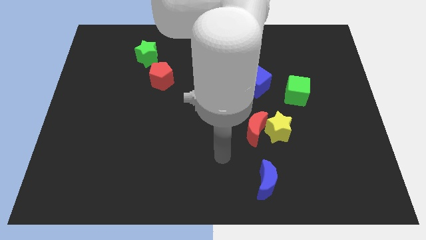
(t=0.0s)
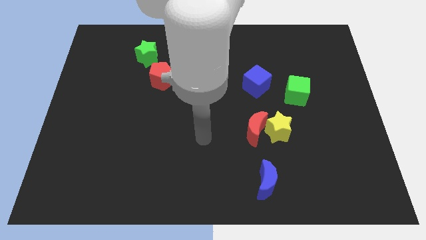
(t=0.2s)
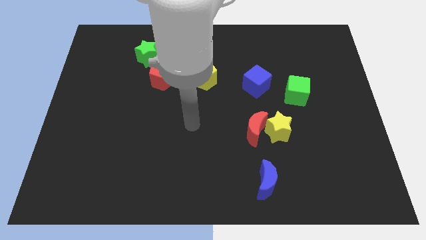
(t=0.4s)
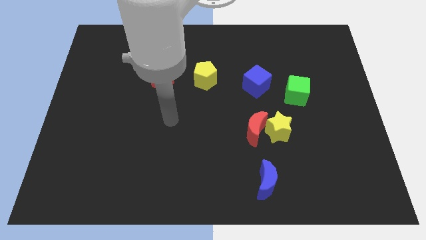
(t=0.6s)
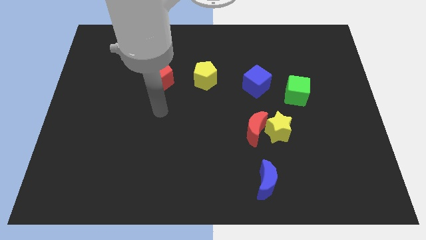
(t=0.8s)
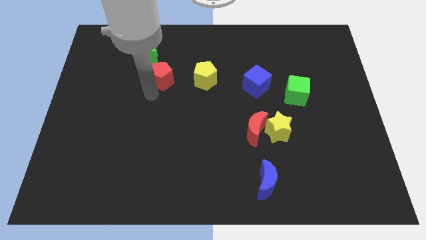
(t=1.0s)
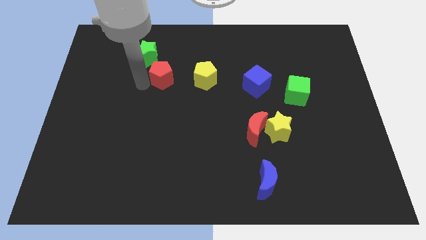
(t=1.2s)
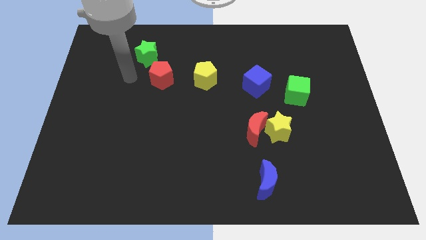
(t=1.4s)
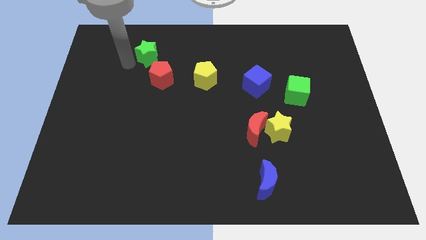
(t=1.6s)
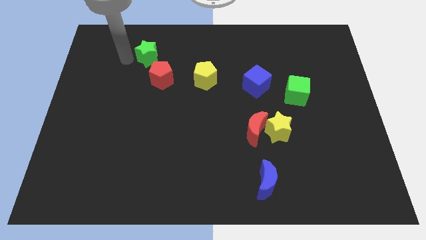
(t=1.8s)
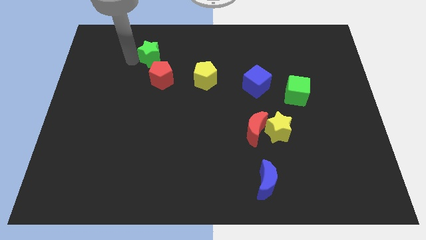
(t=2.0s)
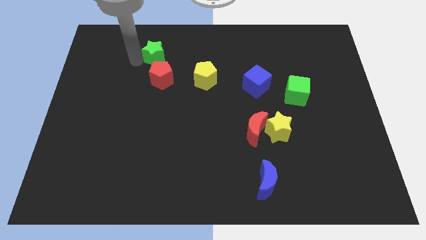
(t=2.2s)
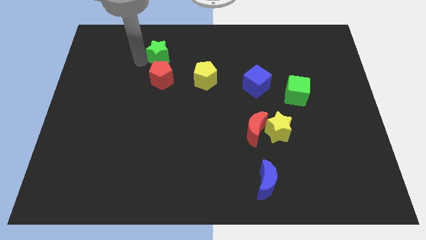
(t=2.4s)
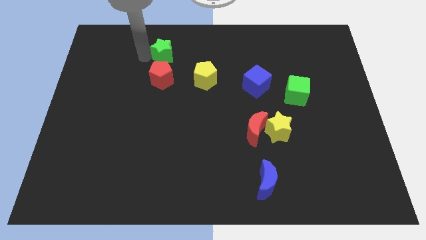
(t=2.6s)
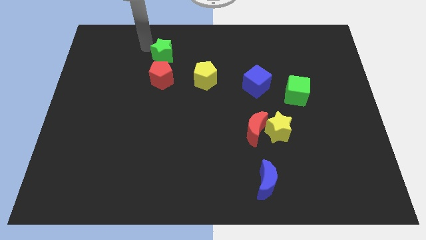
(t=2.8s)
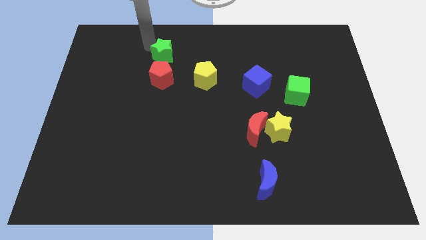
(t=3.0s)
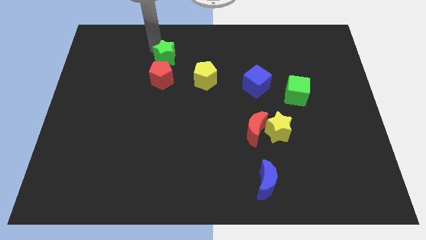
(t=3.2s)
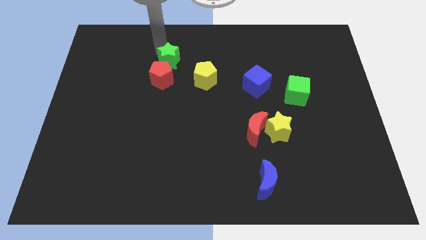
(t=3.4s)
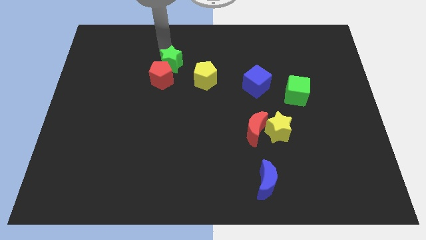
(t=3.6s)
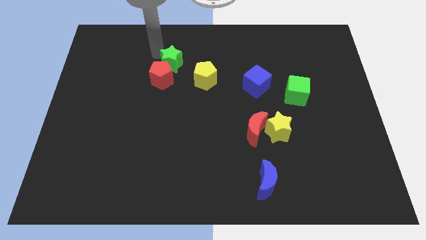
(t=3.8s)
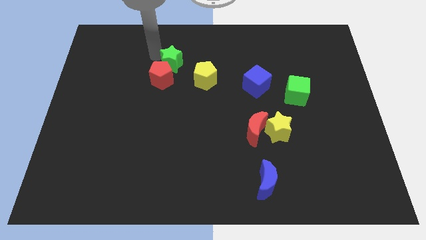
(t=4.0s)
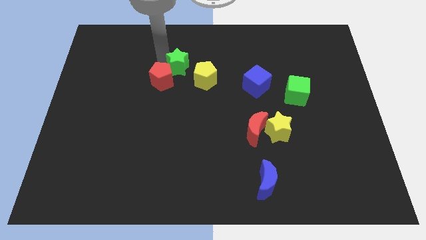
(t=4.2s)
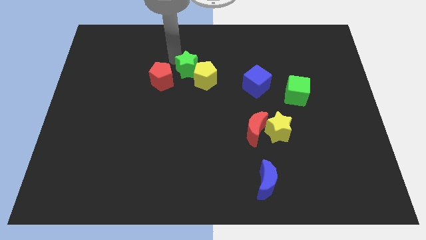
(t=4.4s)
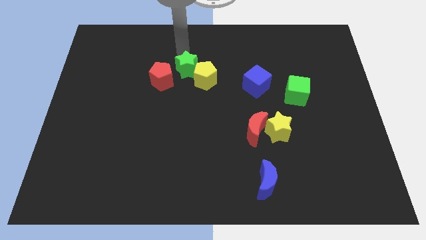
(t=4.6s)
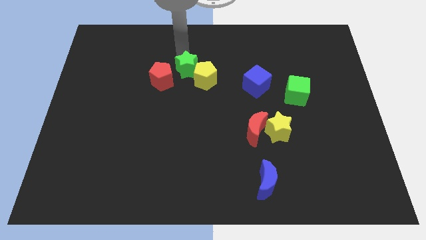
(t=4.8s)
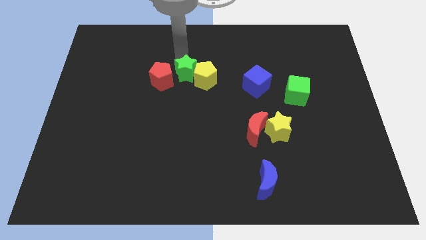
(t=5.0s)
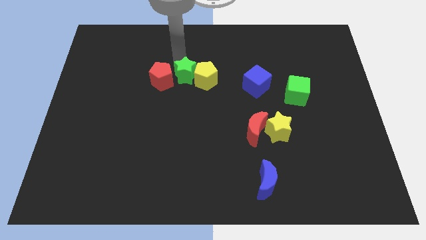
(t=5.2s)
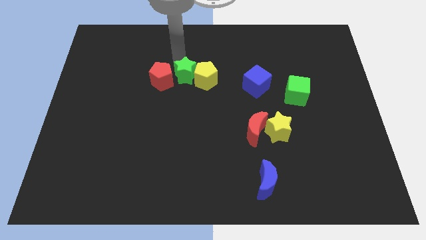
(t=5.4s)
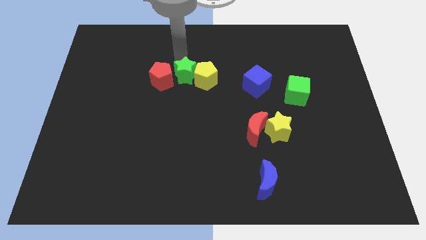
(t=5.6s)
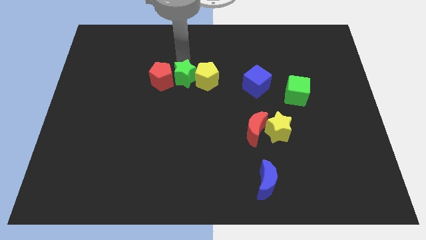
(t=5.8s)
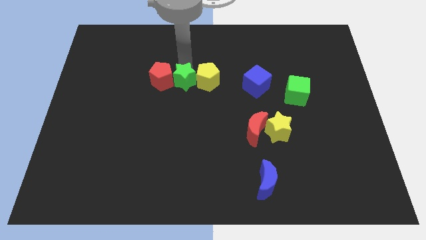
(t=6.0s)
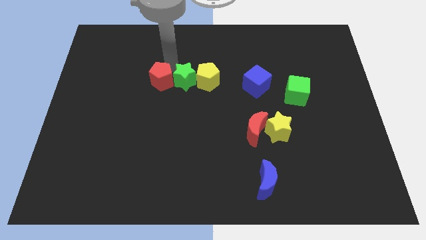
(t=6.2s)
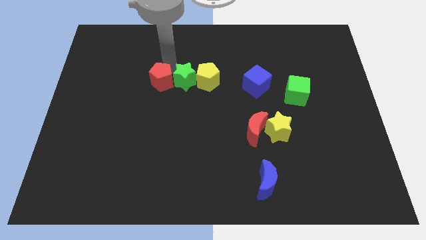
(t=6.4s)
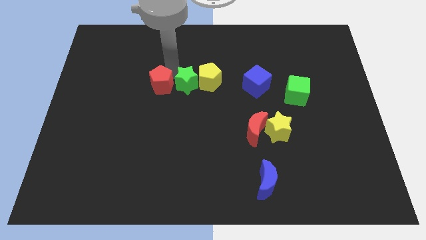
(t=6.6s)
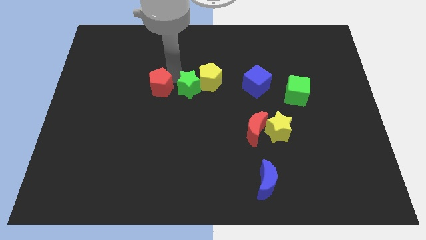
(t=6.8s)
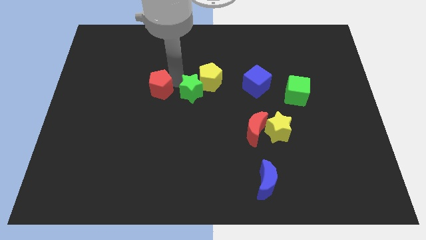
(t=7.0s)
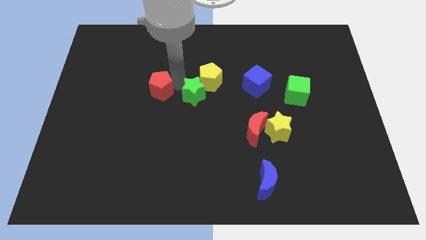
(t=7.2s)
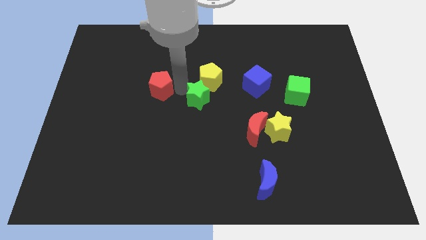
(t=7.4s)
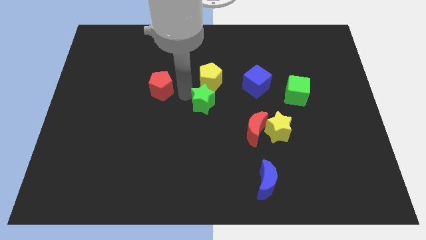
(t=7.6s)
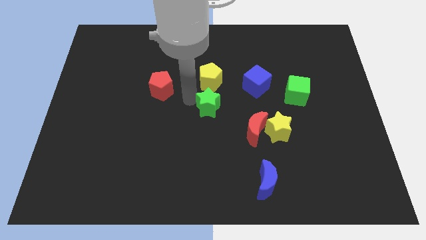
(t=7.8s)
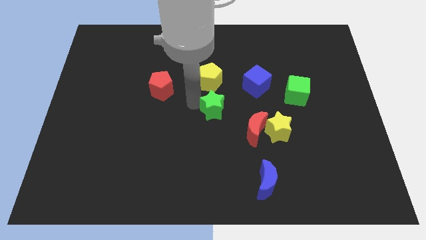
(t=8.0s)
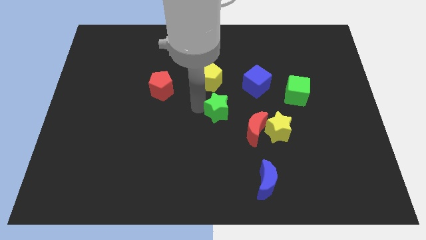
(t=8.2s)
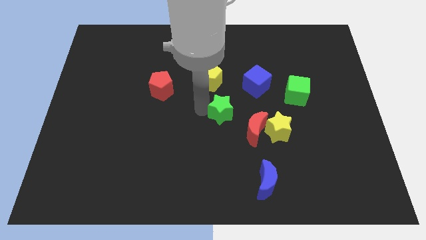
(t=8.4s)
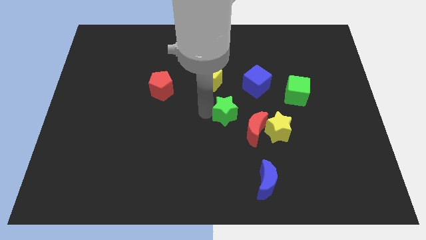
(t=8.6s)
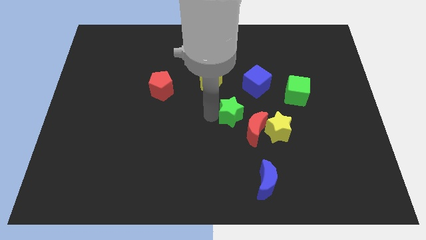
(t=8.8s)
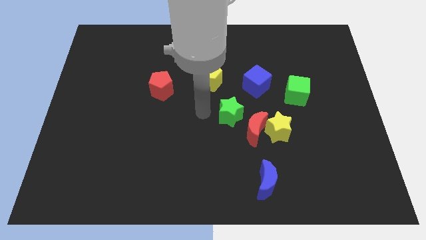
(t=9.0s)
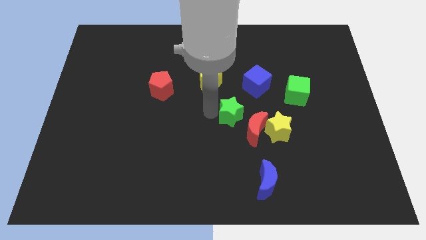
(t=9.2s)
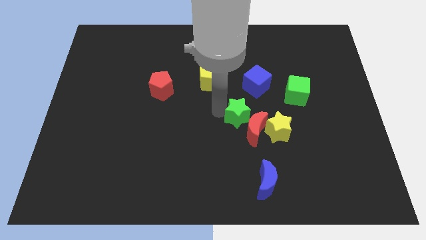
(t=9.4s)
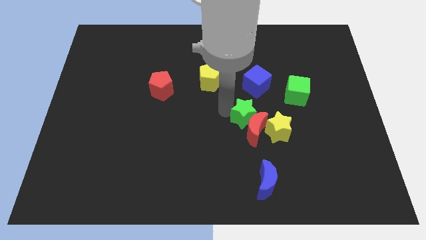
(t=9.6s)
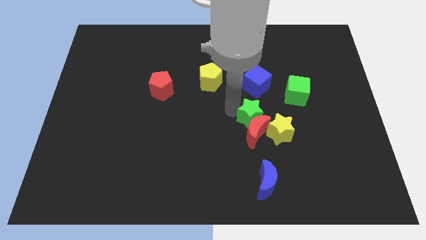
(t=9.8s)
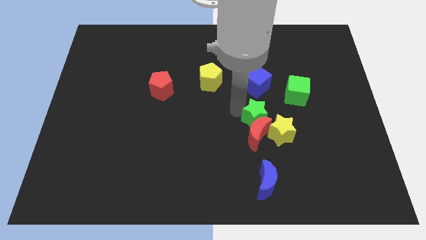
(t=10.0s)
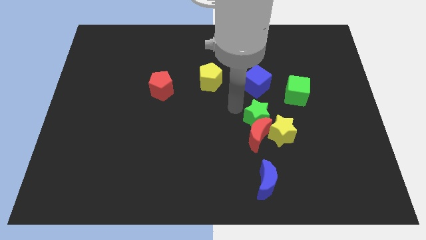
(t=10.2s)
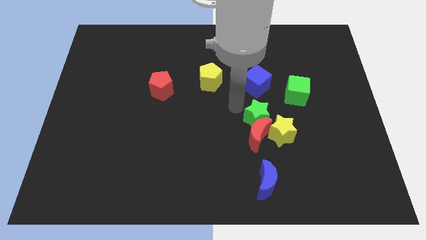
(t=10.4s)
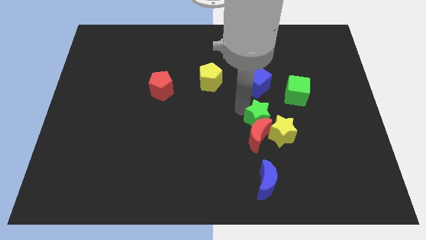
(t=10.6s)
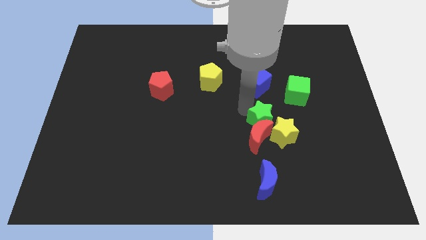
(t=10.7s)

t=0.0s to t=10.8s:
put the green star towards the yellow star

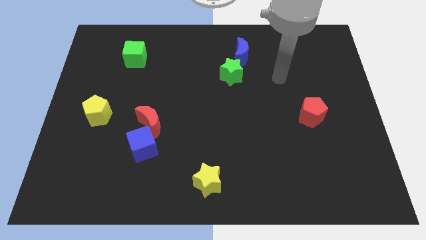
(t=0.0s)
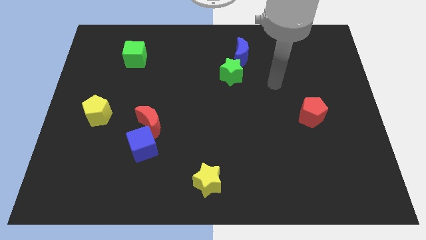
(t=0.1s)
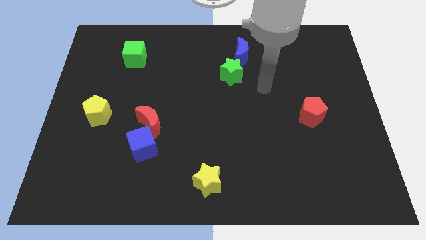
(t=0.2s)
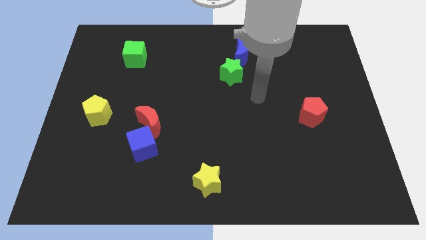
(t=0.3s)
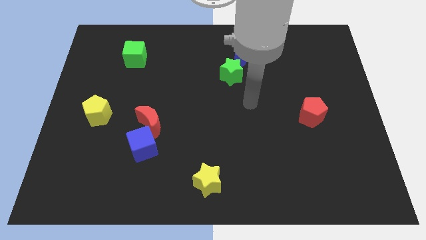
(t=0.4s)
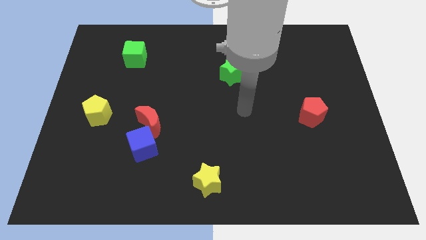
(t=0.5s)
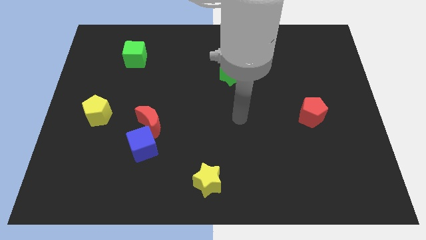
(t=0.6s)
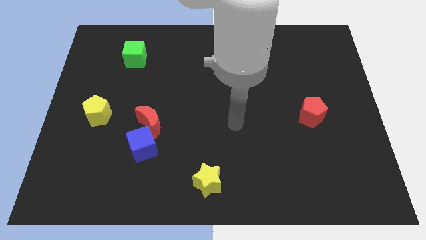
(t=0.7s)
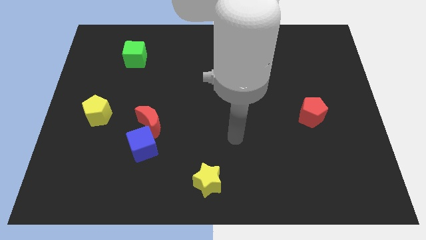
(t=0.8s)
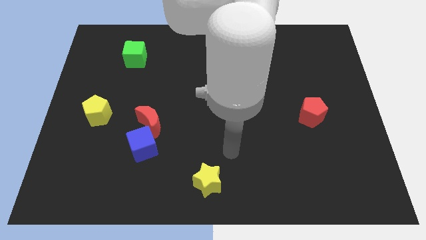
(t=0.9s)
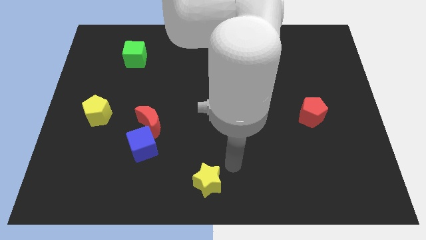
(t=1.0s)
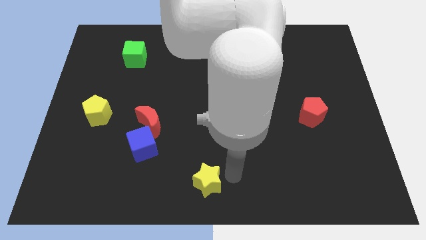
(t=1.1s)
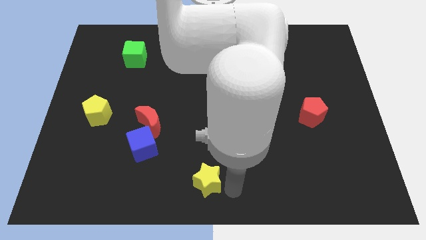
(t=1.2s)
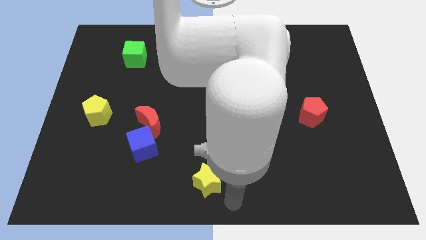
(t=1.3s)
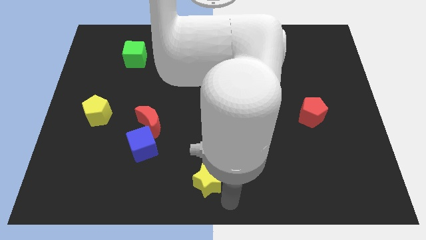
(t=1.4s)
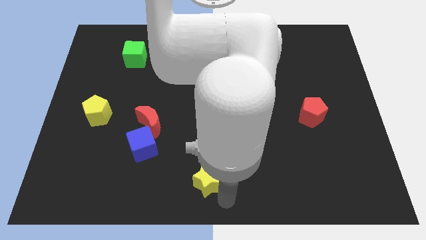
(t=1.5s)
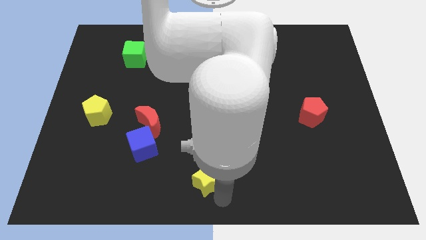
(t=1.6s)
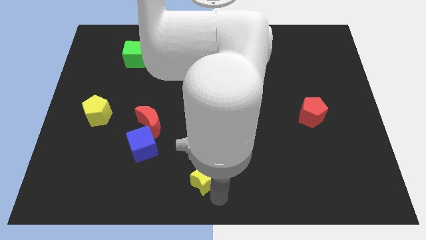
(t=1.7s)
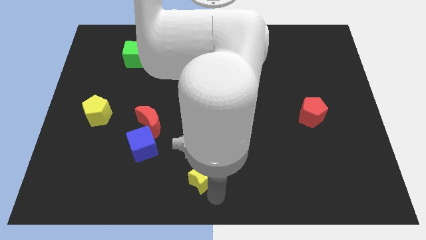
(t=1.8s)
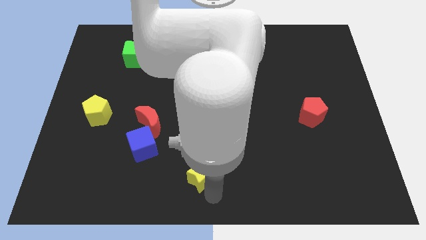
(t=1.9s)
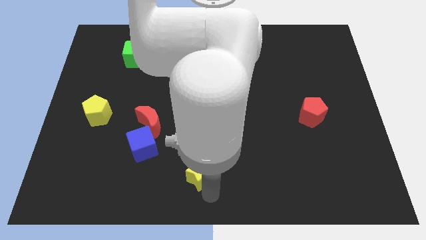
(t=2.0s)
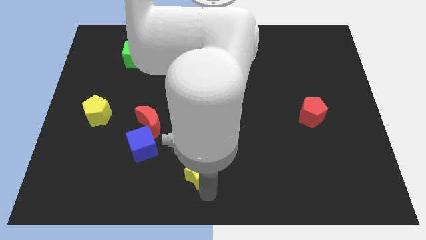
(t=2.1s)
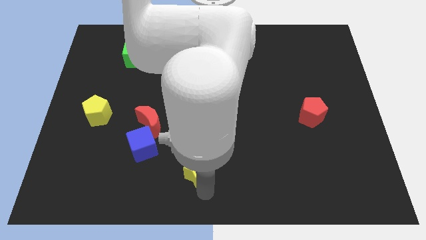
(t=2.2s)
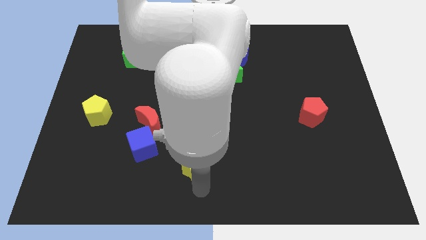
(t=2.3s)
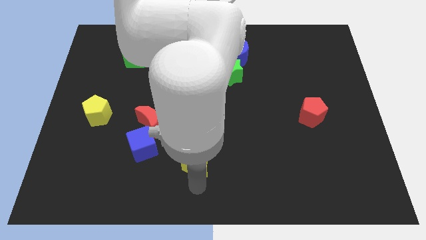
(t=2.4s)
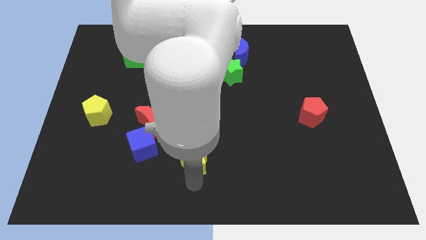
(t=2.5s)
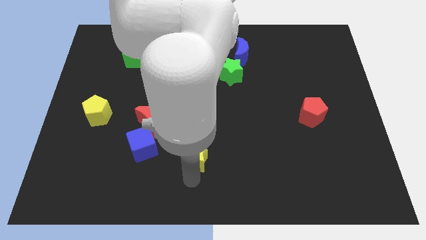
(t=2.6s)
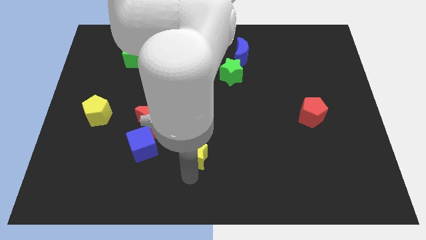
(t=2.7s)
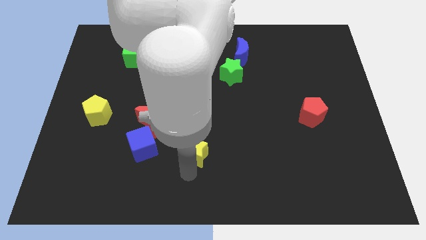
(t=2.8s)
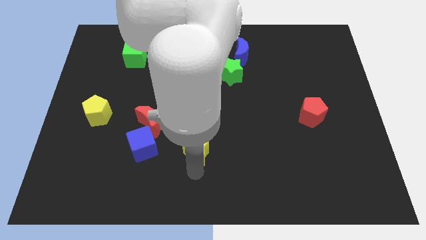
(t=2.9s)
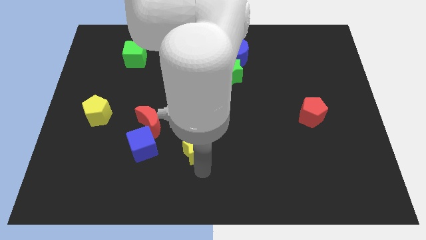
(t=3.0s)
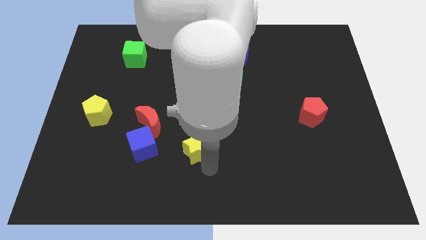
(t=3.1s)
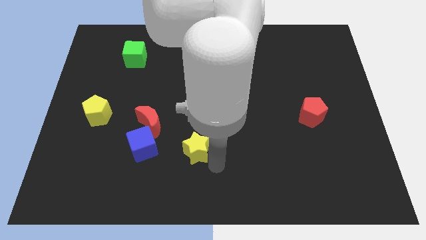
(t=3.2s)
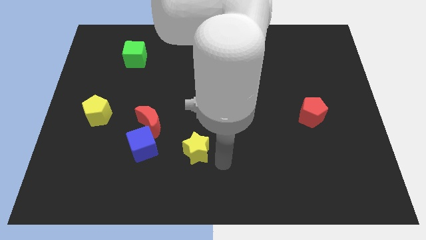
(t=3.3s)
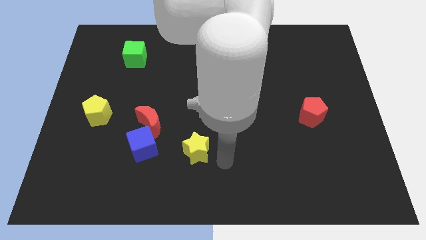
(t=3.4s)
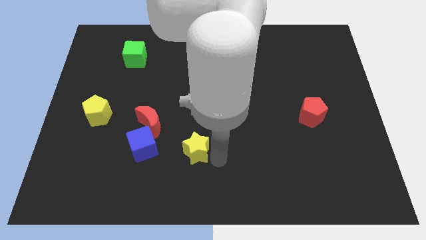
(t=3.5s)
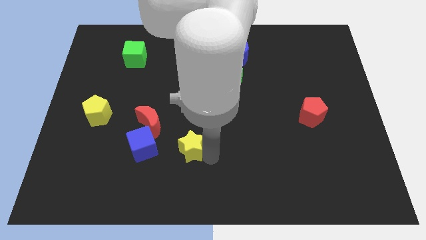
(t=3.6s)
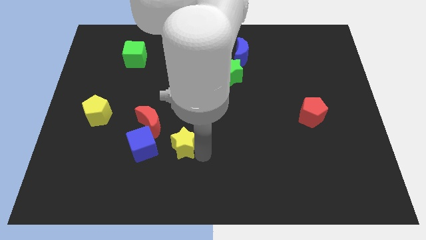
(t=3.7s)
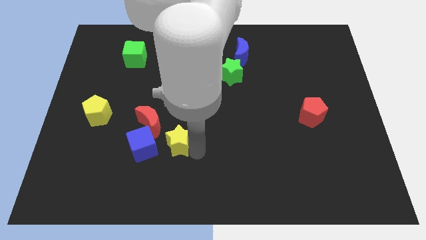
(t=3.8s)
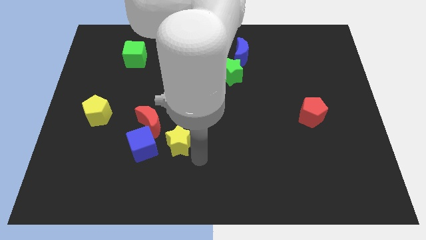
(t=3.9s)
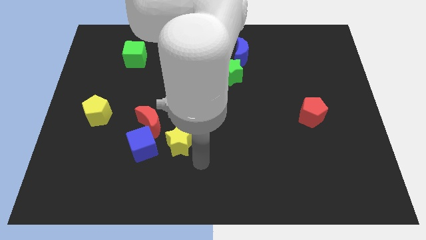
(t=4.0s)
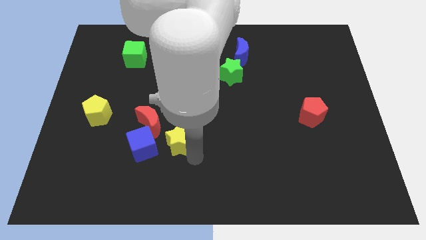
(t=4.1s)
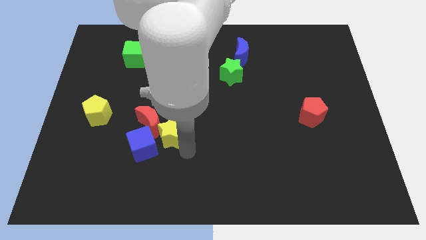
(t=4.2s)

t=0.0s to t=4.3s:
put the yellow star towards the red moon
